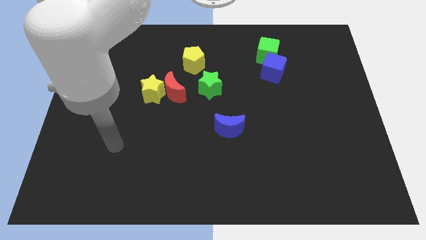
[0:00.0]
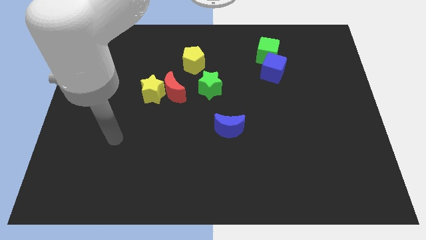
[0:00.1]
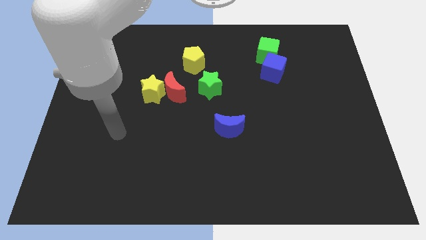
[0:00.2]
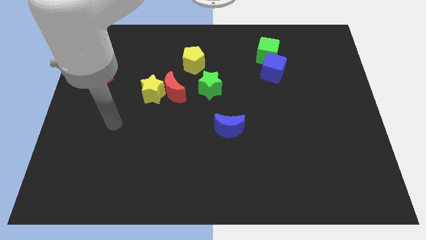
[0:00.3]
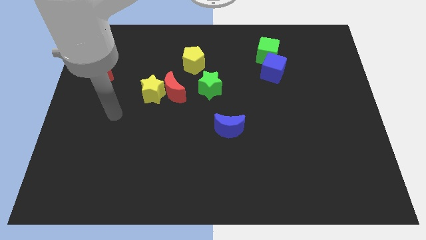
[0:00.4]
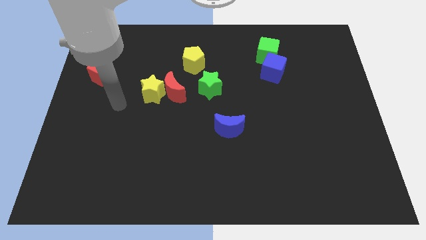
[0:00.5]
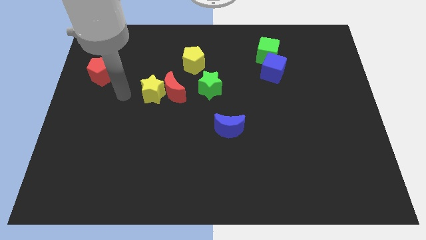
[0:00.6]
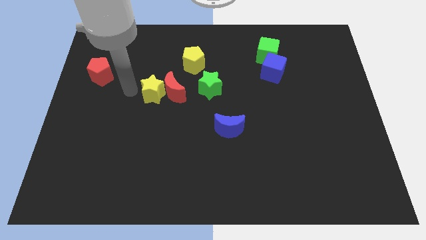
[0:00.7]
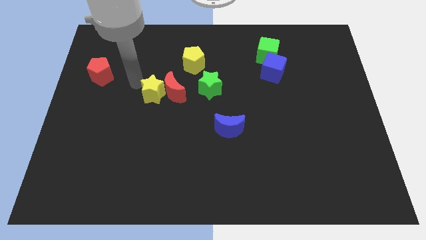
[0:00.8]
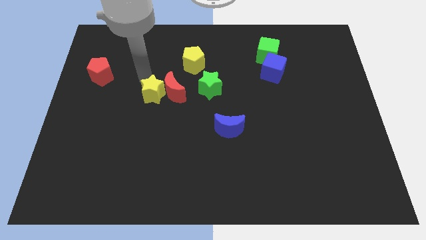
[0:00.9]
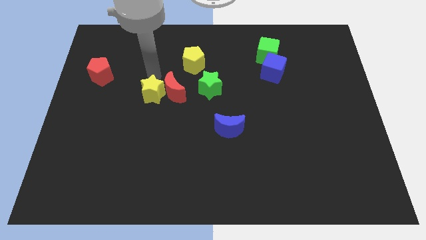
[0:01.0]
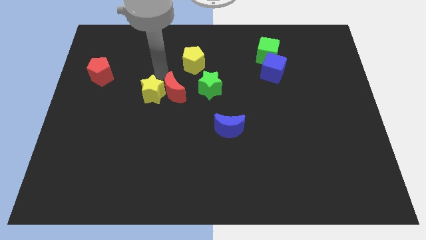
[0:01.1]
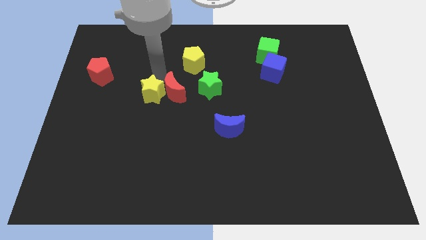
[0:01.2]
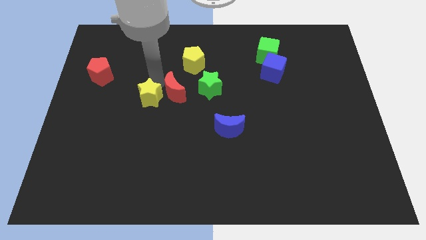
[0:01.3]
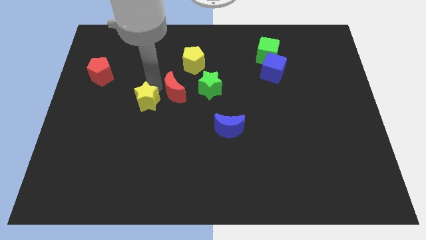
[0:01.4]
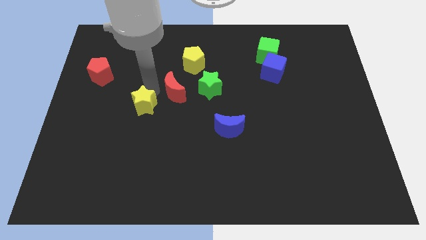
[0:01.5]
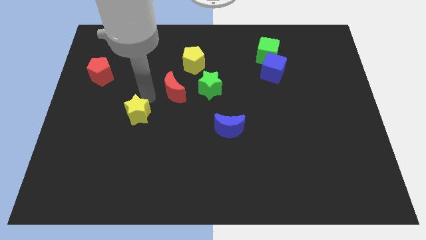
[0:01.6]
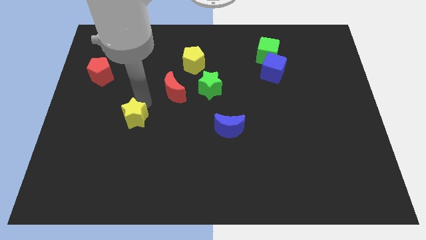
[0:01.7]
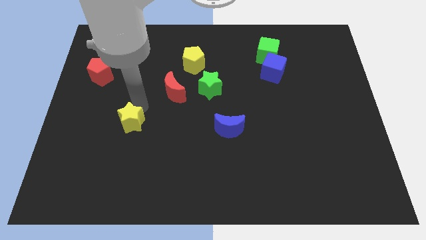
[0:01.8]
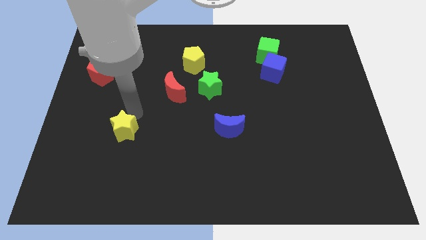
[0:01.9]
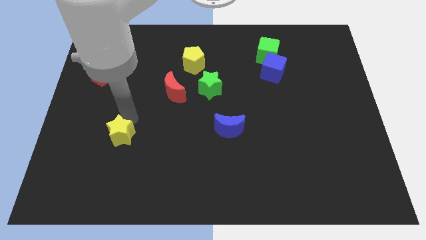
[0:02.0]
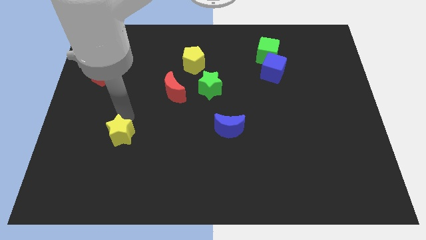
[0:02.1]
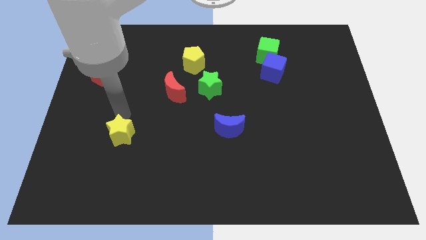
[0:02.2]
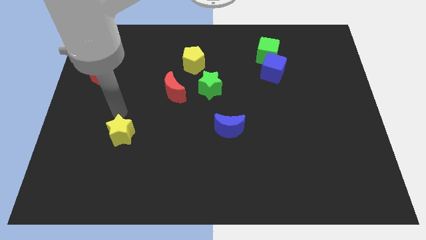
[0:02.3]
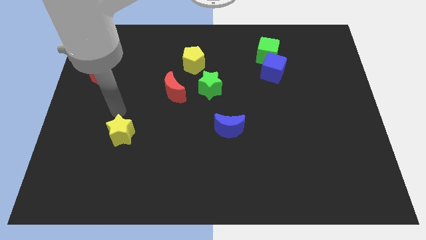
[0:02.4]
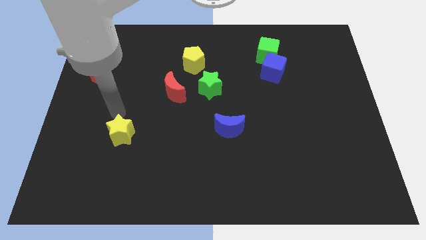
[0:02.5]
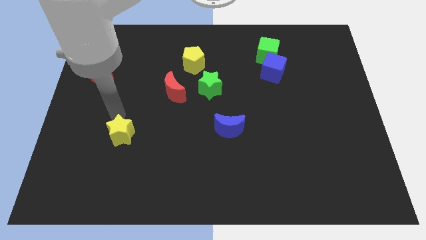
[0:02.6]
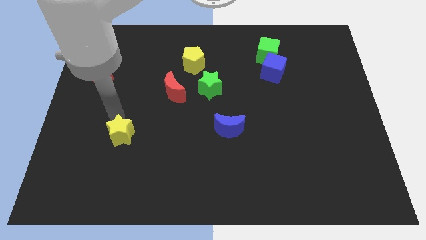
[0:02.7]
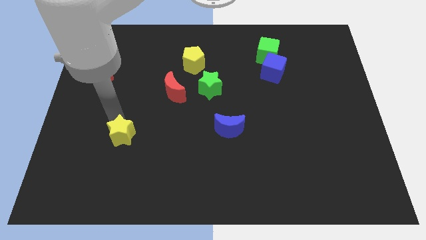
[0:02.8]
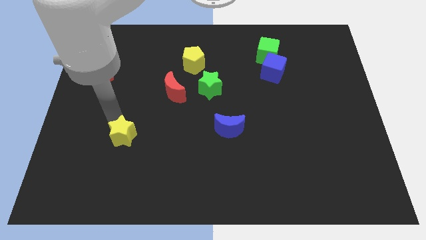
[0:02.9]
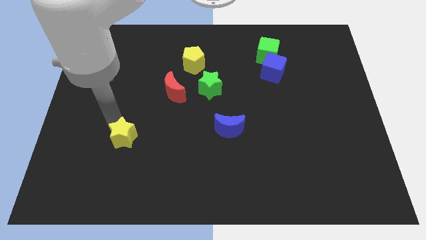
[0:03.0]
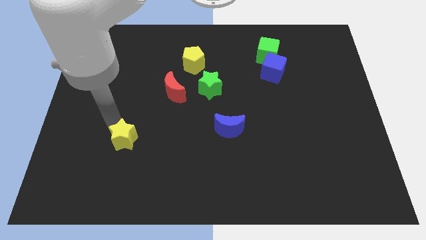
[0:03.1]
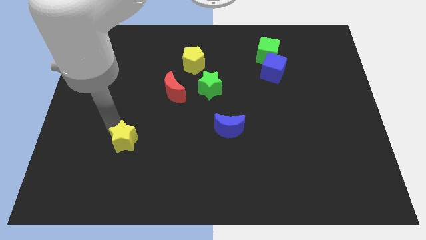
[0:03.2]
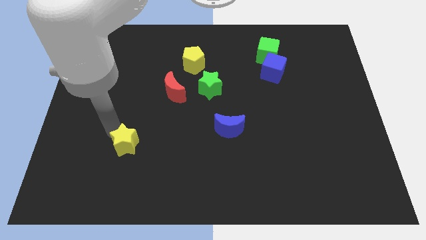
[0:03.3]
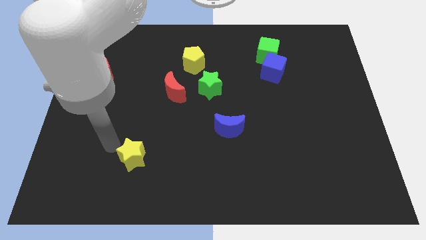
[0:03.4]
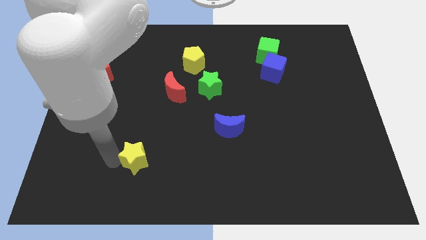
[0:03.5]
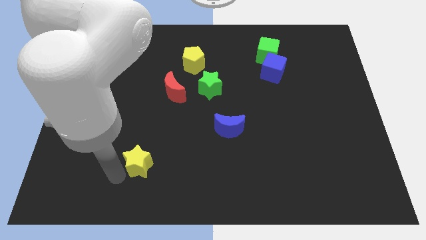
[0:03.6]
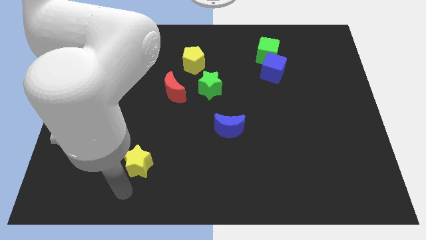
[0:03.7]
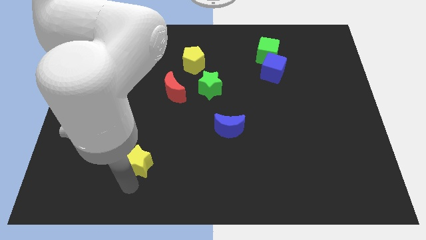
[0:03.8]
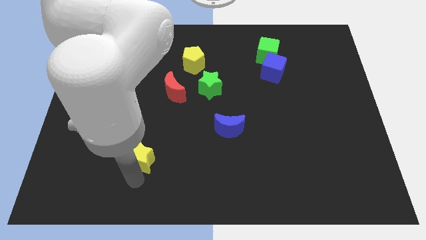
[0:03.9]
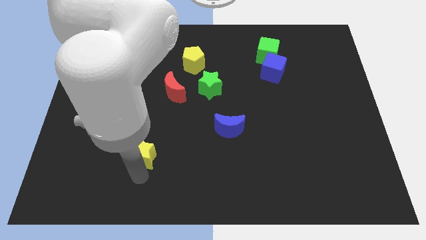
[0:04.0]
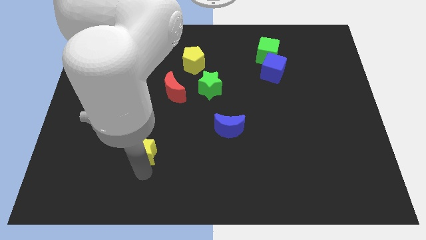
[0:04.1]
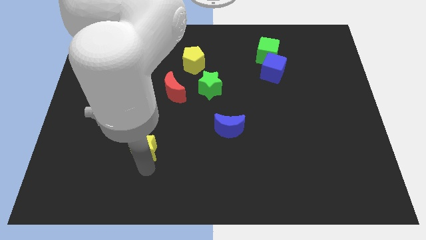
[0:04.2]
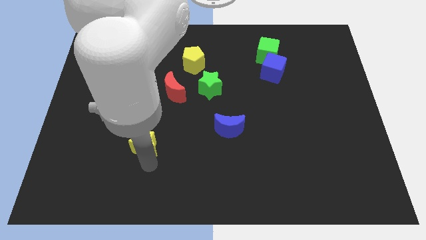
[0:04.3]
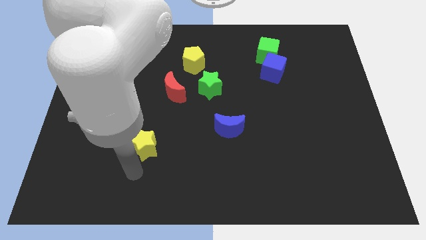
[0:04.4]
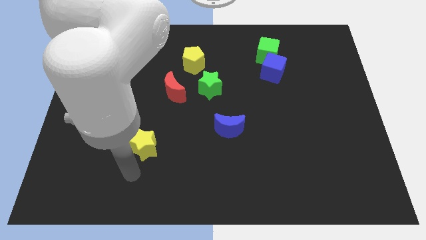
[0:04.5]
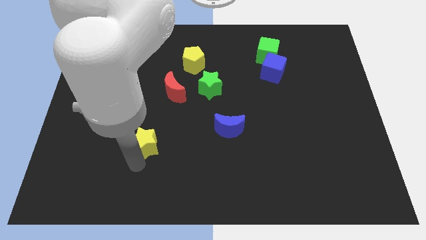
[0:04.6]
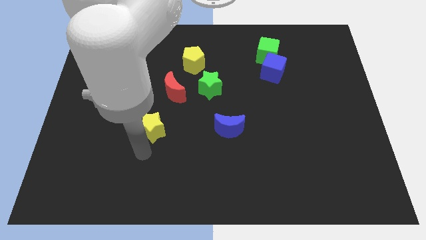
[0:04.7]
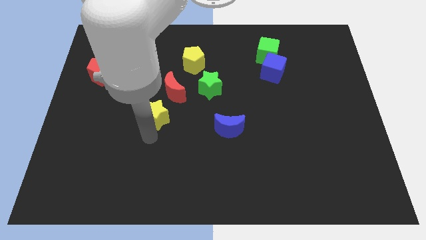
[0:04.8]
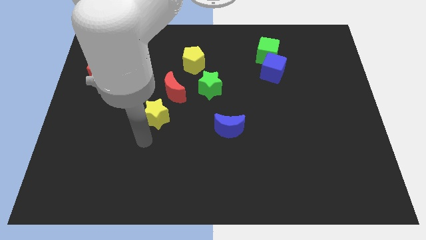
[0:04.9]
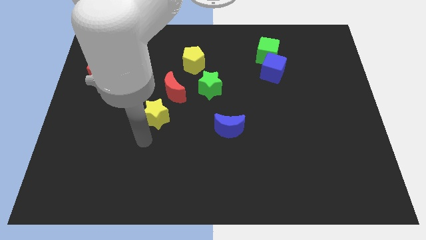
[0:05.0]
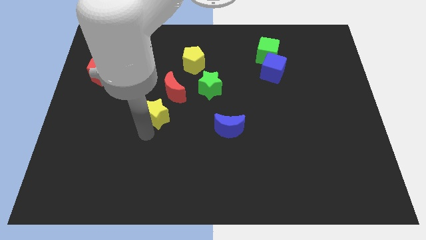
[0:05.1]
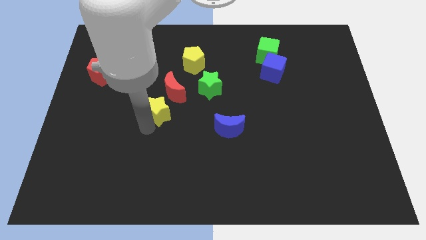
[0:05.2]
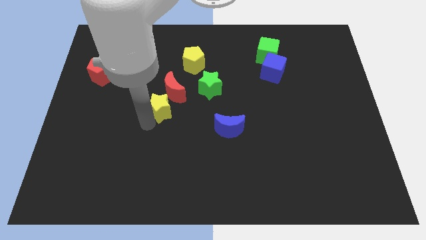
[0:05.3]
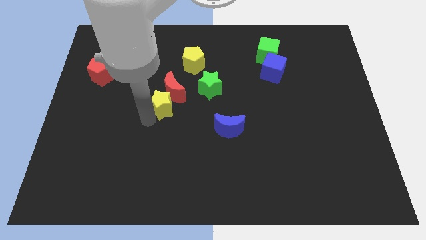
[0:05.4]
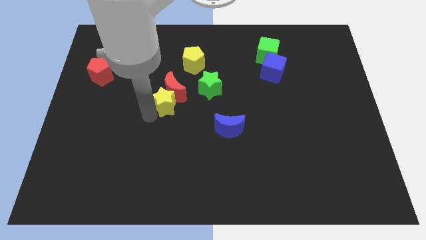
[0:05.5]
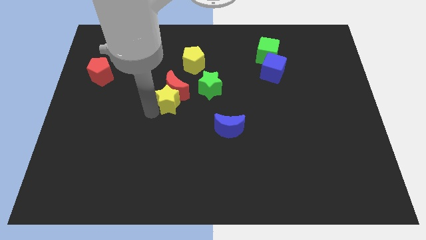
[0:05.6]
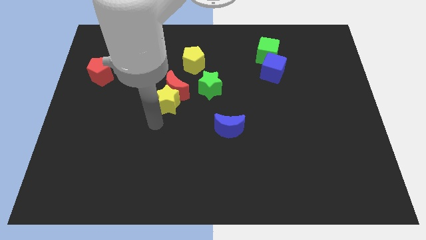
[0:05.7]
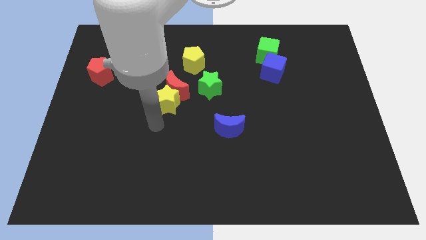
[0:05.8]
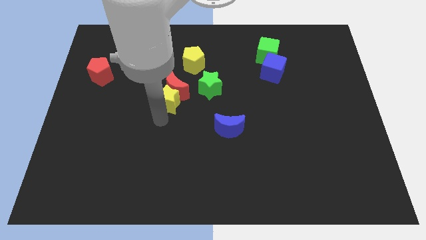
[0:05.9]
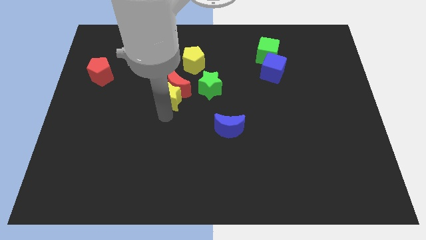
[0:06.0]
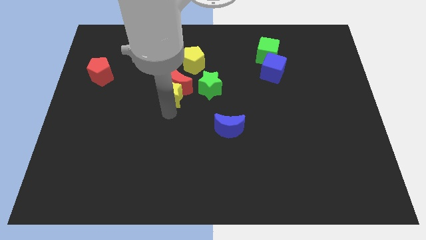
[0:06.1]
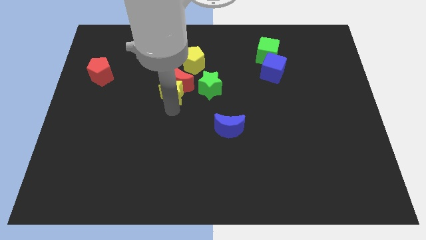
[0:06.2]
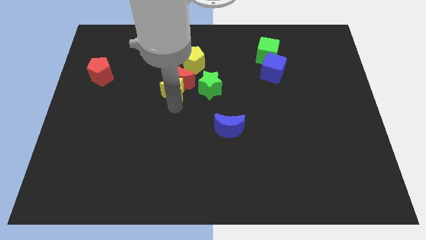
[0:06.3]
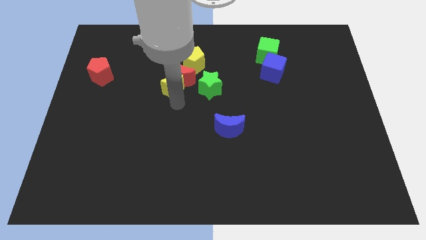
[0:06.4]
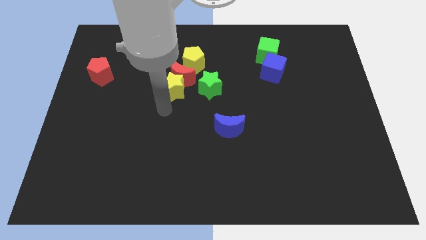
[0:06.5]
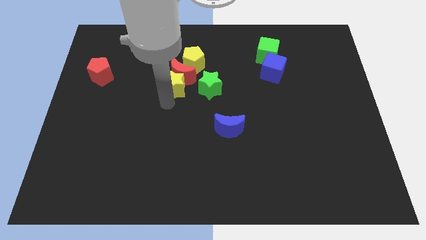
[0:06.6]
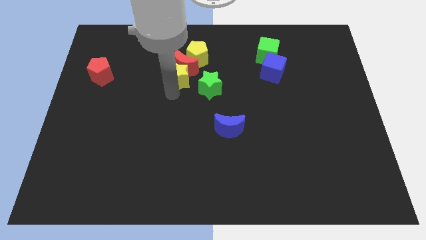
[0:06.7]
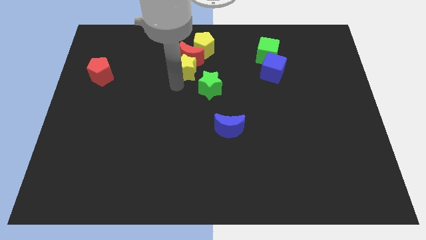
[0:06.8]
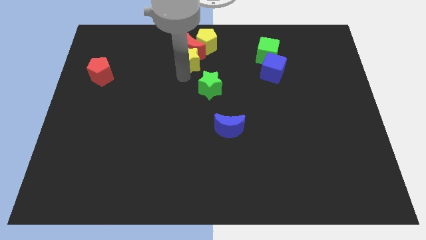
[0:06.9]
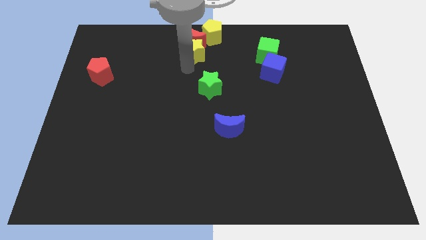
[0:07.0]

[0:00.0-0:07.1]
move the yellow star to the top
